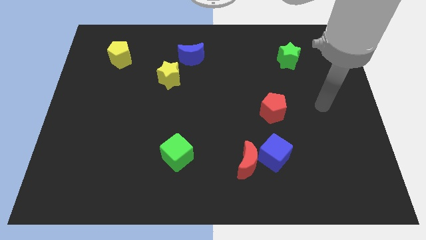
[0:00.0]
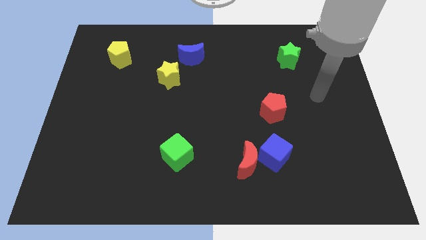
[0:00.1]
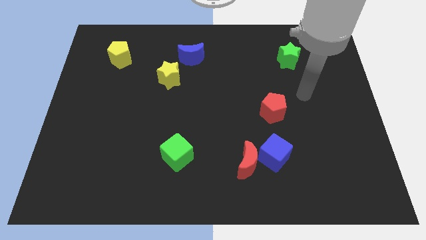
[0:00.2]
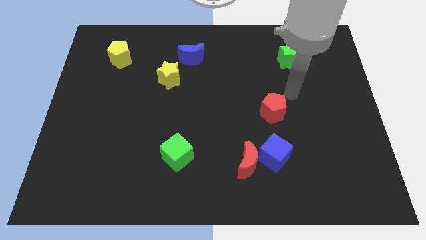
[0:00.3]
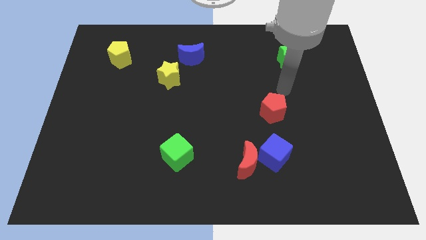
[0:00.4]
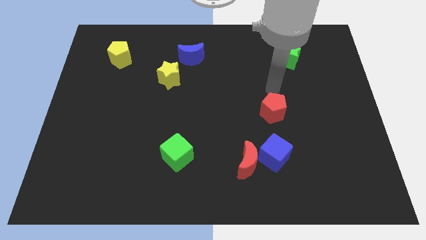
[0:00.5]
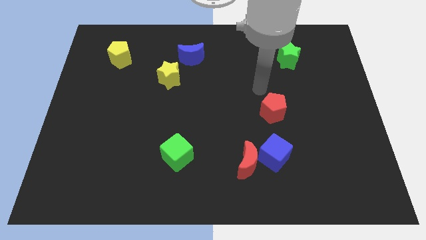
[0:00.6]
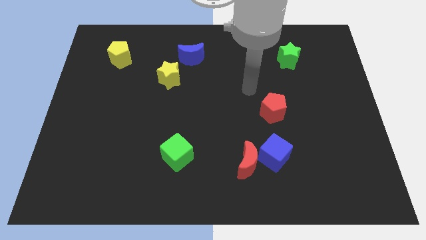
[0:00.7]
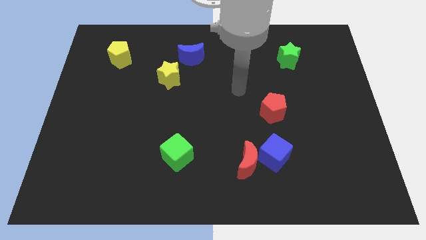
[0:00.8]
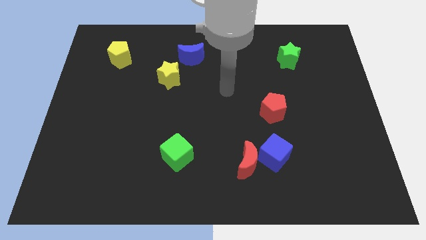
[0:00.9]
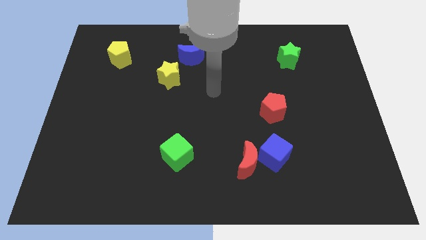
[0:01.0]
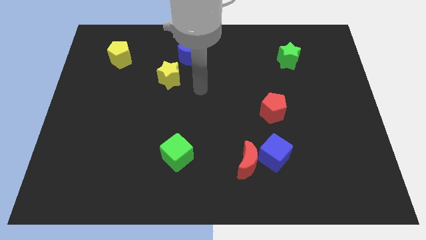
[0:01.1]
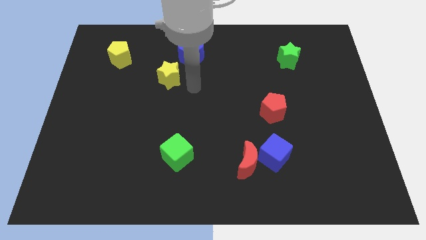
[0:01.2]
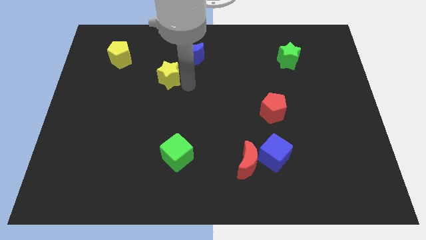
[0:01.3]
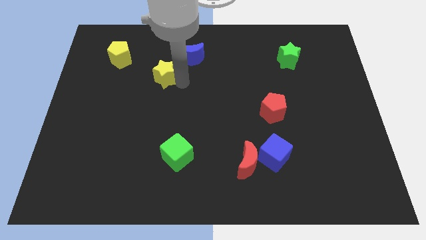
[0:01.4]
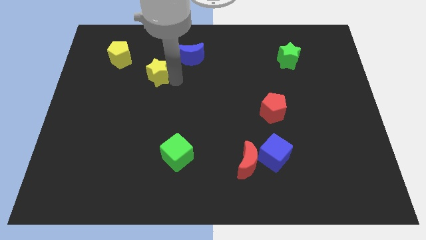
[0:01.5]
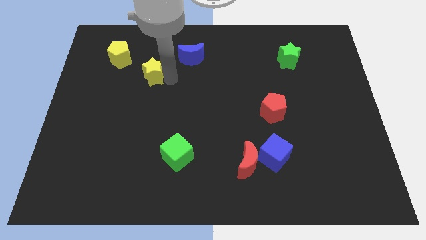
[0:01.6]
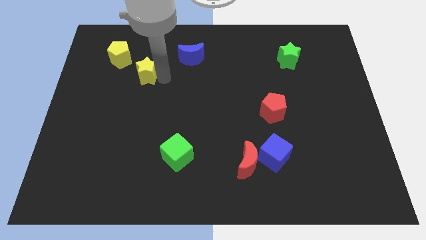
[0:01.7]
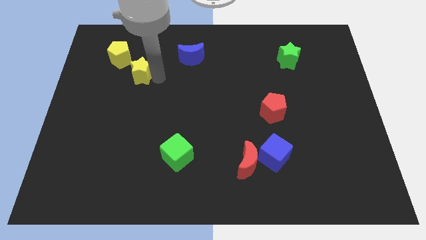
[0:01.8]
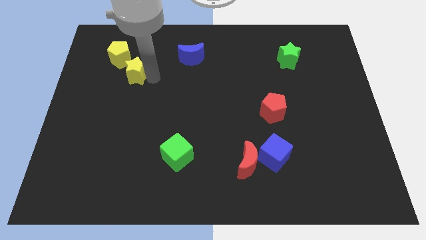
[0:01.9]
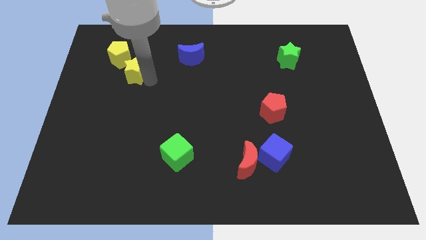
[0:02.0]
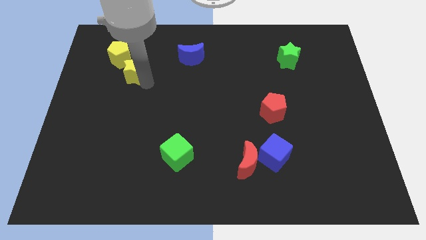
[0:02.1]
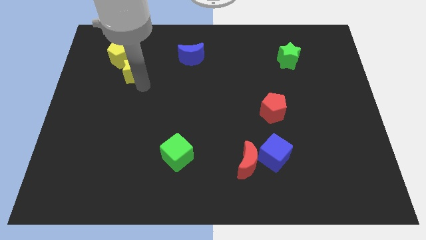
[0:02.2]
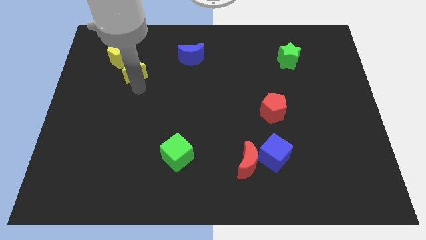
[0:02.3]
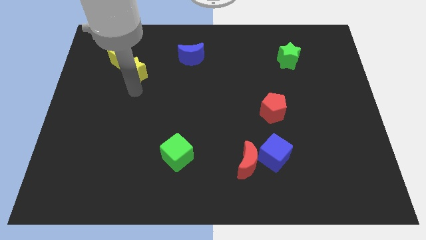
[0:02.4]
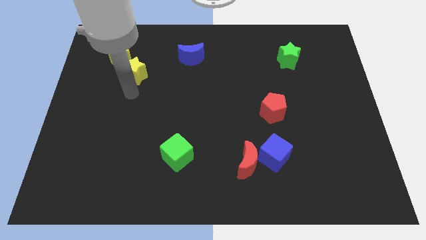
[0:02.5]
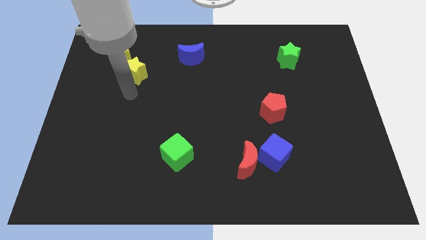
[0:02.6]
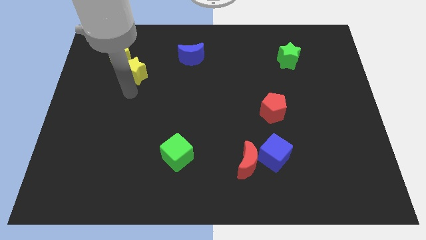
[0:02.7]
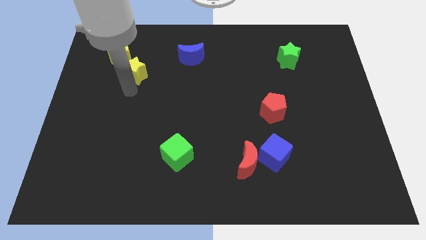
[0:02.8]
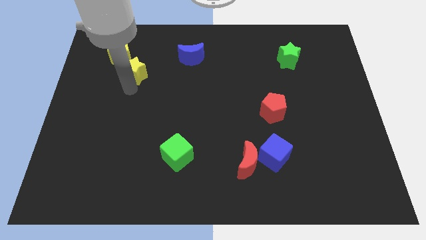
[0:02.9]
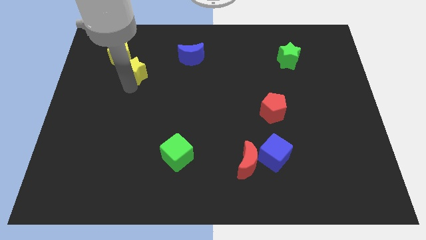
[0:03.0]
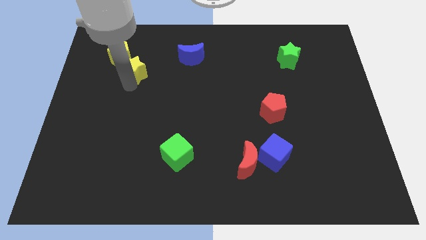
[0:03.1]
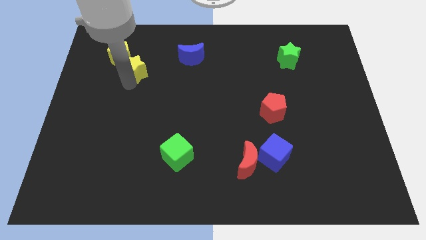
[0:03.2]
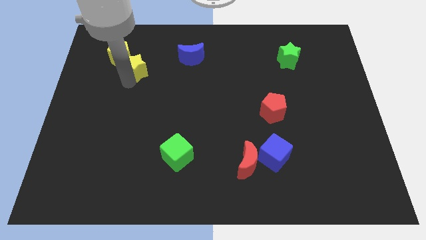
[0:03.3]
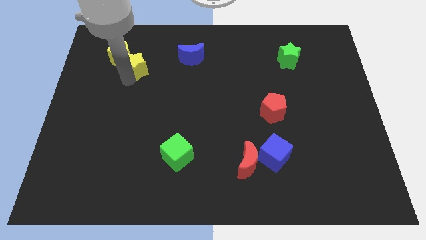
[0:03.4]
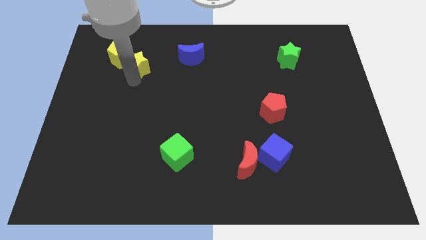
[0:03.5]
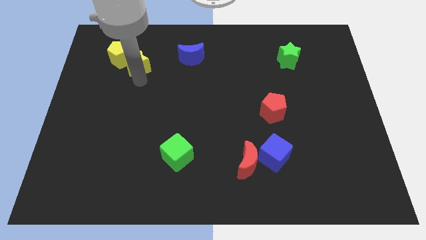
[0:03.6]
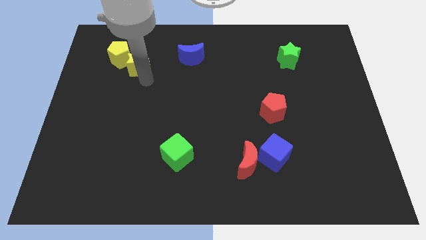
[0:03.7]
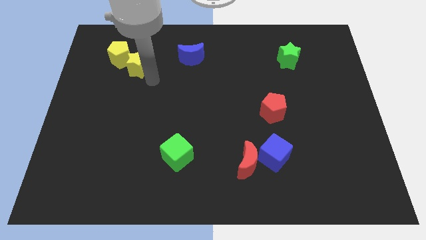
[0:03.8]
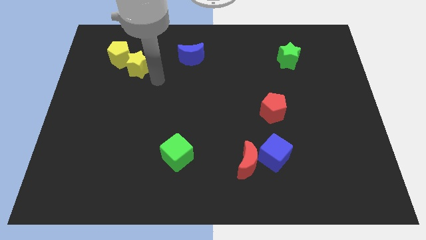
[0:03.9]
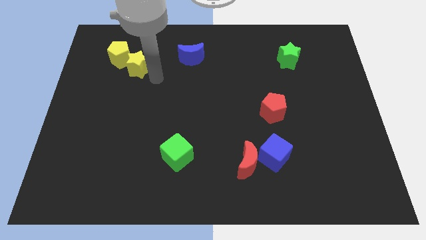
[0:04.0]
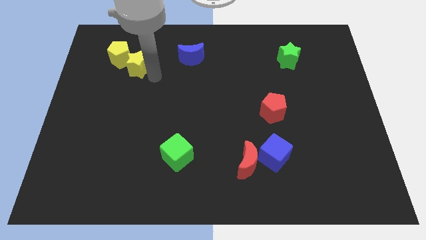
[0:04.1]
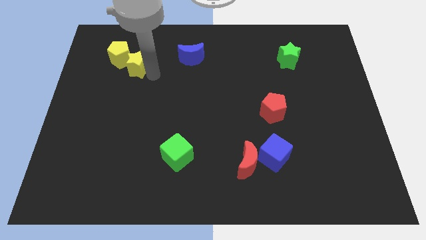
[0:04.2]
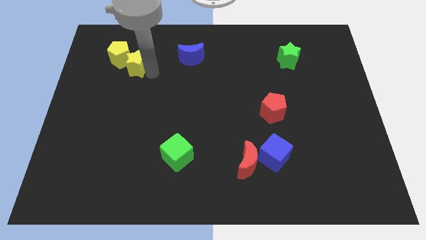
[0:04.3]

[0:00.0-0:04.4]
push the yellow star to the yellow pentagon

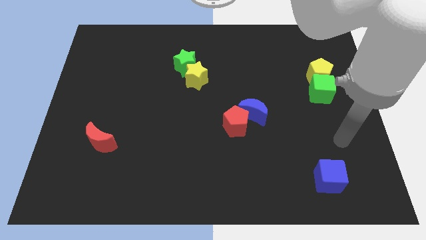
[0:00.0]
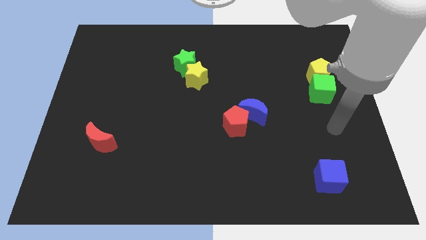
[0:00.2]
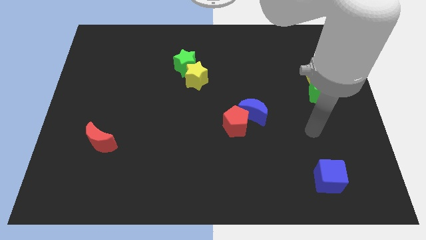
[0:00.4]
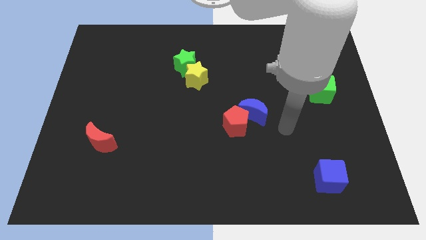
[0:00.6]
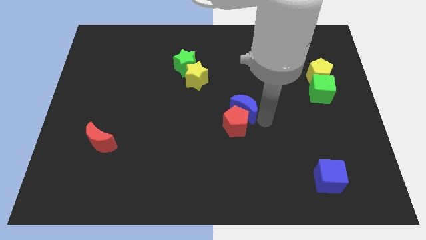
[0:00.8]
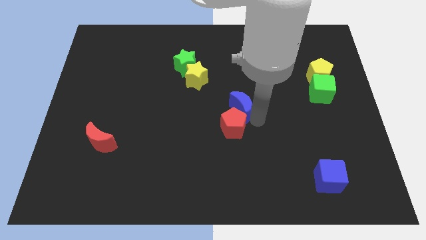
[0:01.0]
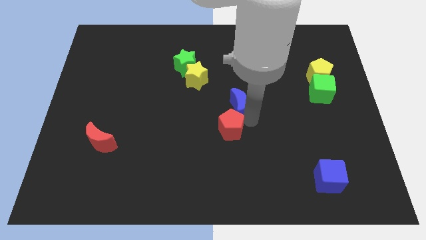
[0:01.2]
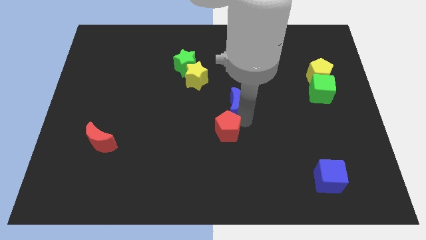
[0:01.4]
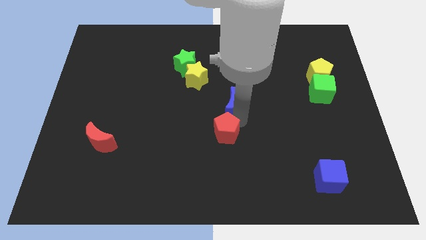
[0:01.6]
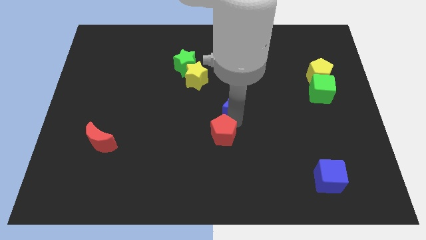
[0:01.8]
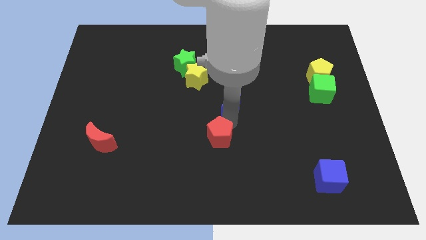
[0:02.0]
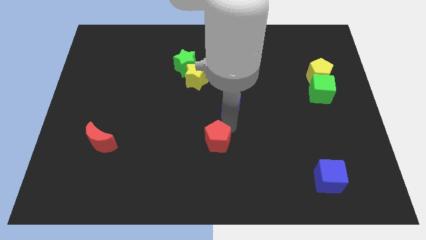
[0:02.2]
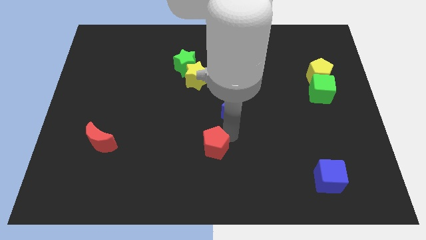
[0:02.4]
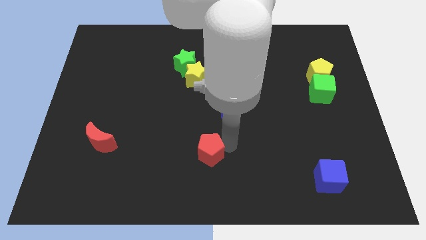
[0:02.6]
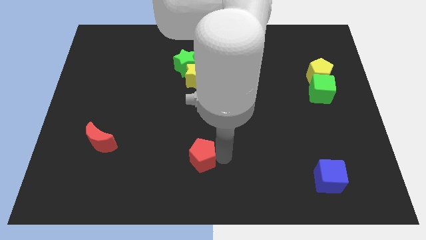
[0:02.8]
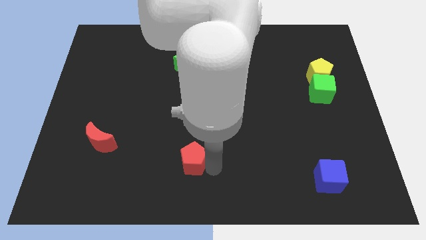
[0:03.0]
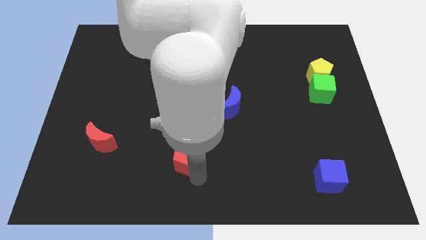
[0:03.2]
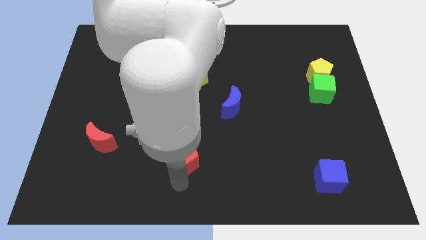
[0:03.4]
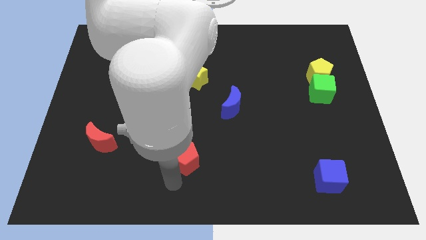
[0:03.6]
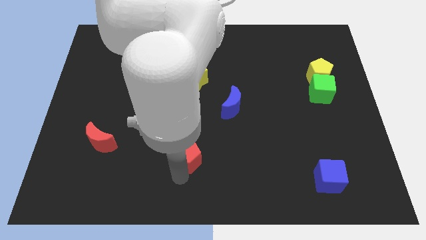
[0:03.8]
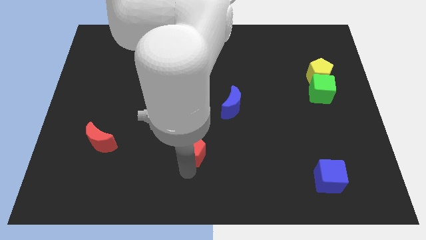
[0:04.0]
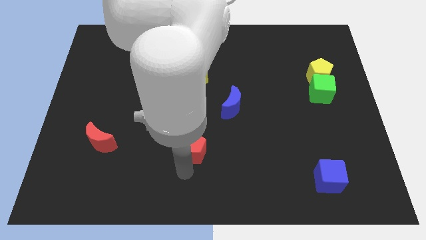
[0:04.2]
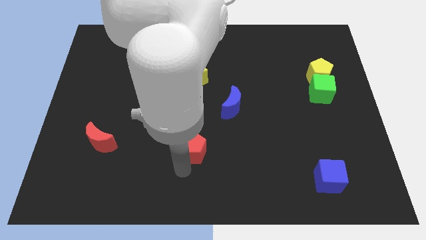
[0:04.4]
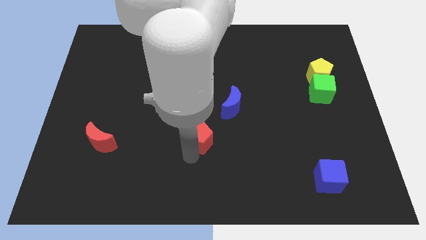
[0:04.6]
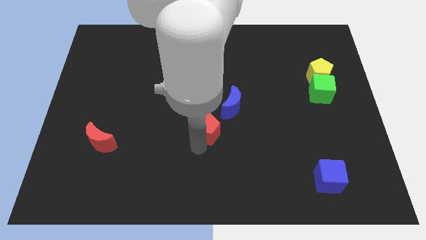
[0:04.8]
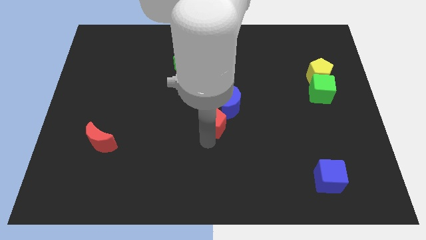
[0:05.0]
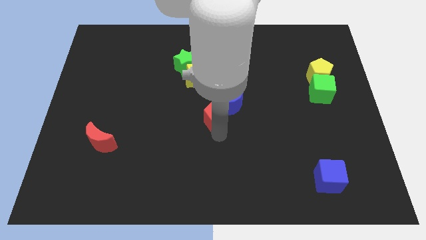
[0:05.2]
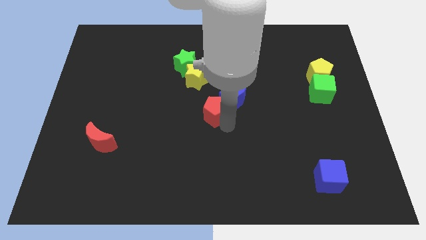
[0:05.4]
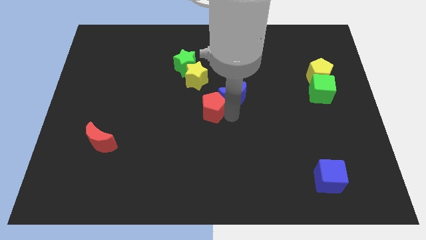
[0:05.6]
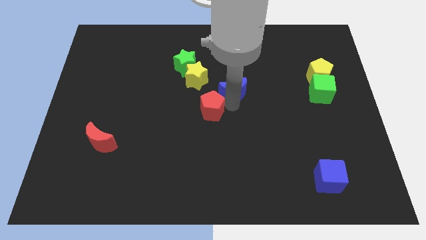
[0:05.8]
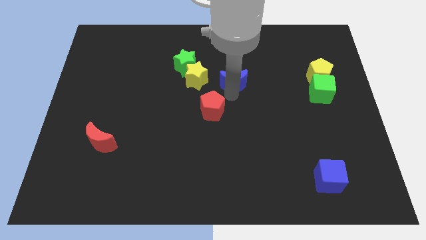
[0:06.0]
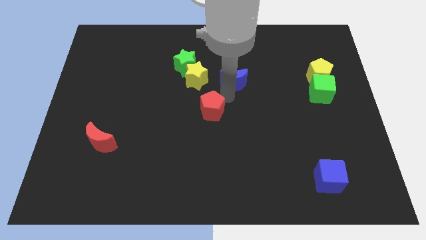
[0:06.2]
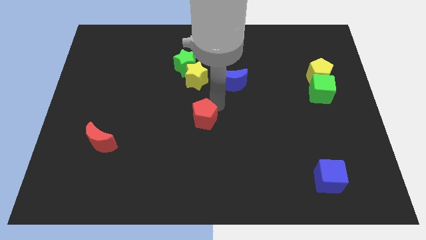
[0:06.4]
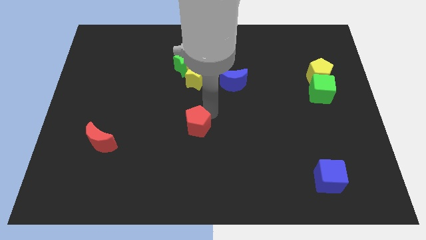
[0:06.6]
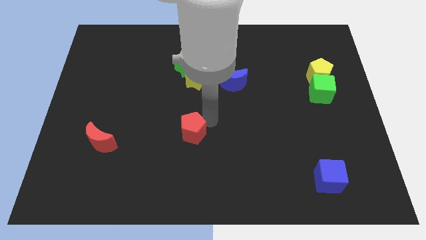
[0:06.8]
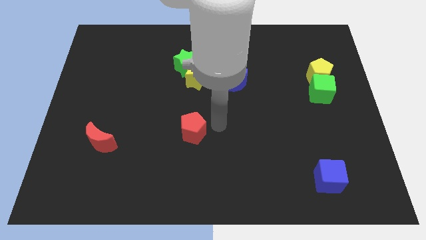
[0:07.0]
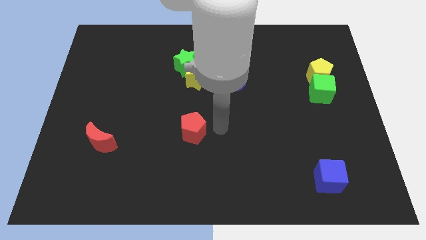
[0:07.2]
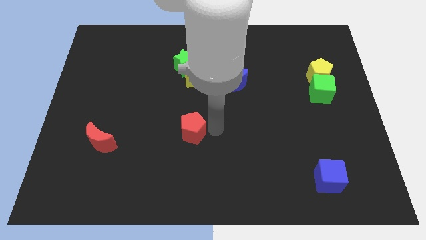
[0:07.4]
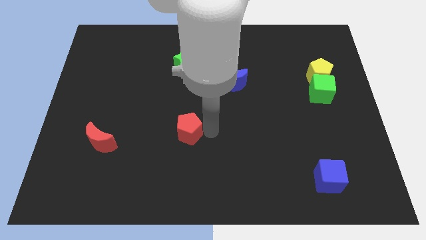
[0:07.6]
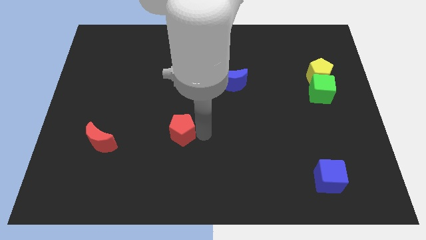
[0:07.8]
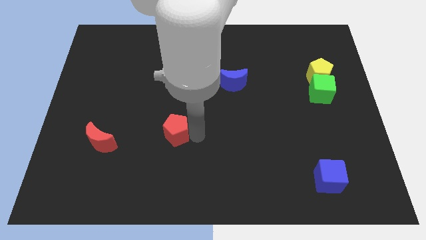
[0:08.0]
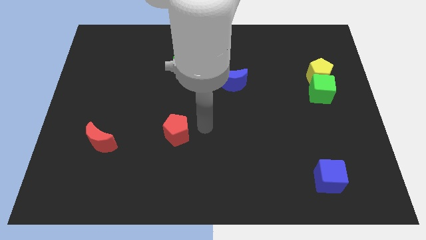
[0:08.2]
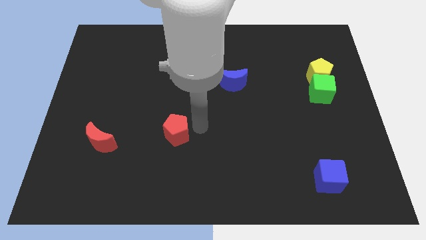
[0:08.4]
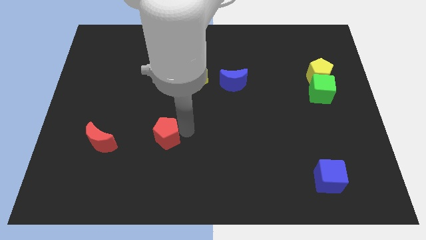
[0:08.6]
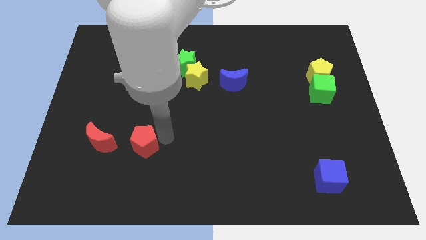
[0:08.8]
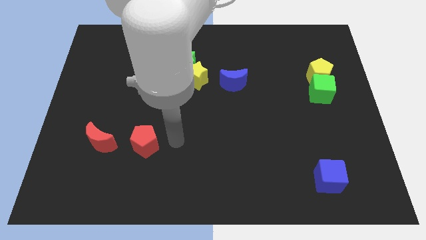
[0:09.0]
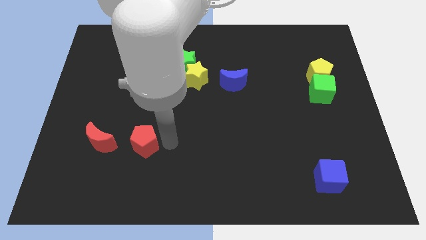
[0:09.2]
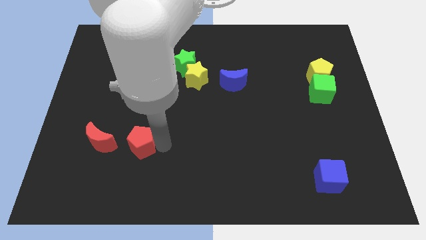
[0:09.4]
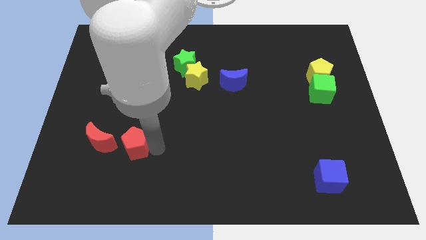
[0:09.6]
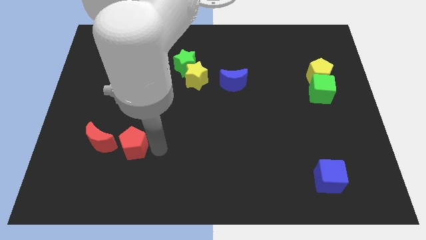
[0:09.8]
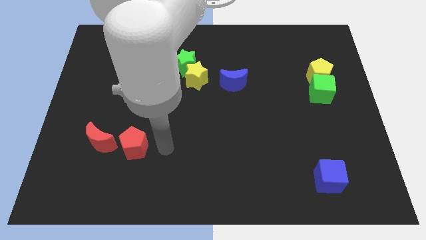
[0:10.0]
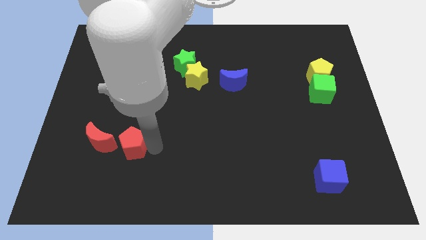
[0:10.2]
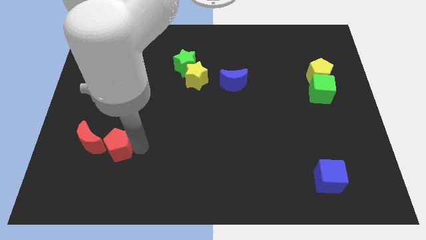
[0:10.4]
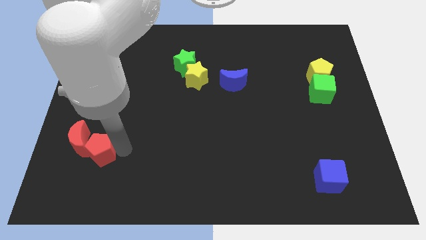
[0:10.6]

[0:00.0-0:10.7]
put the red pentagon to the red moon
